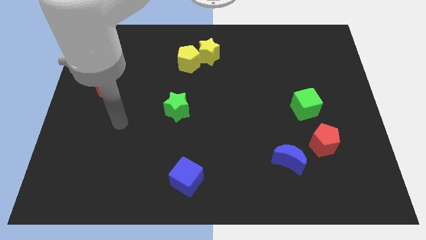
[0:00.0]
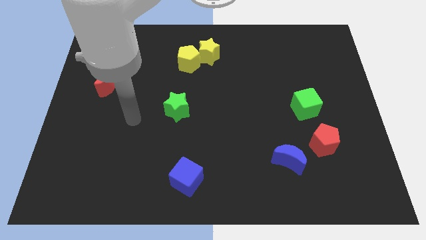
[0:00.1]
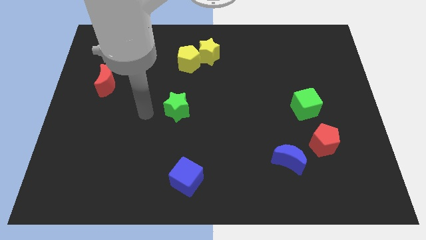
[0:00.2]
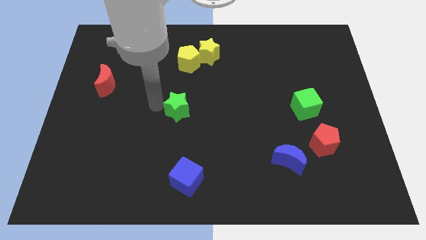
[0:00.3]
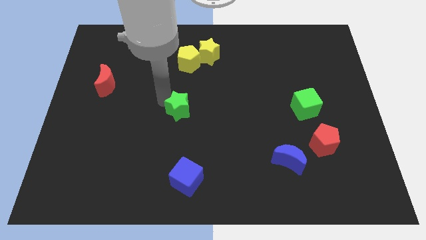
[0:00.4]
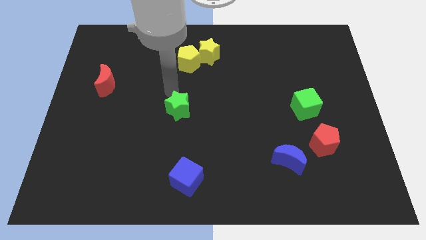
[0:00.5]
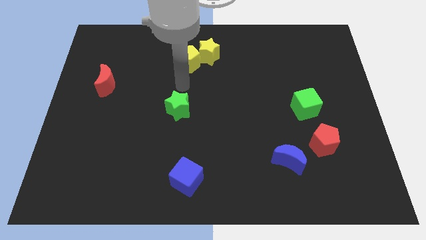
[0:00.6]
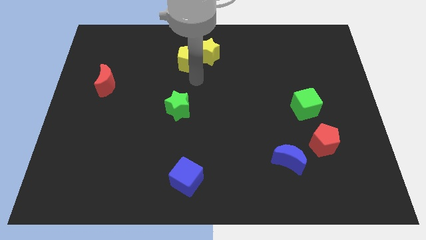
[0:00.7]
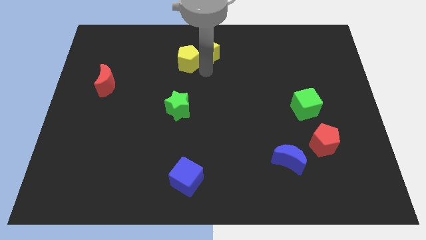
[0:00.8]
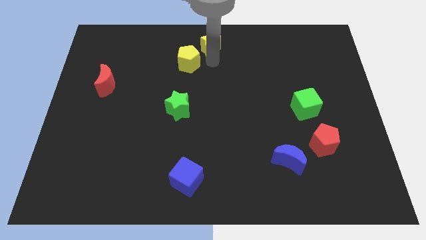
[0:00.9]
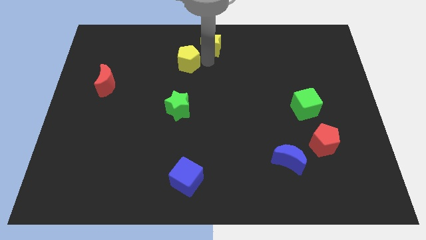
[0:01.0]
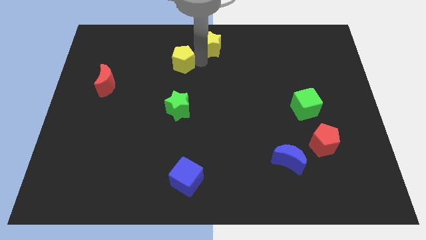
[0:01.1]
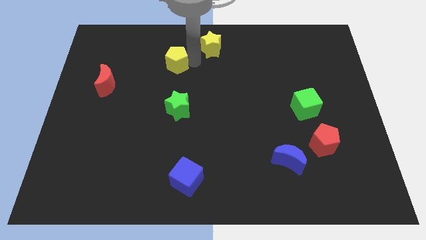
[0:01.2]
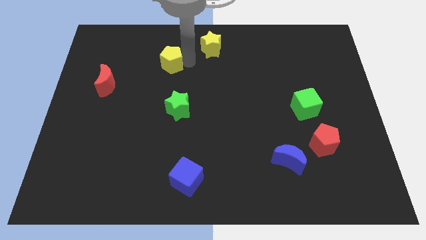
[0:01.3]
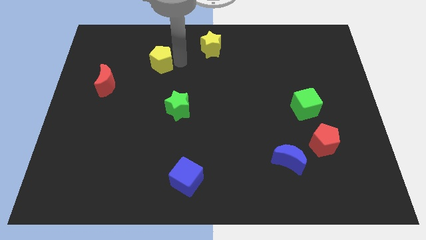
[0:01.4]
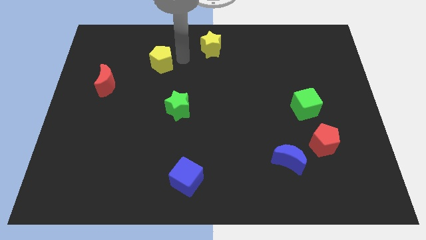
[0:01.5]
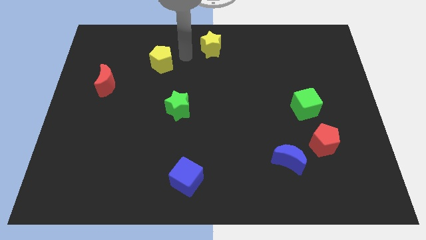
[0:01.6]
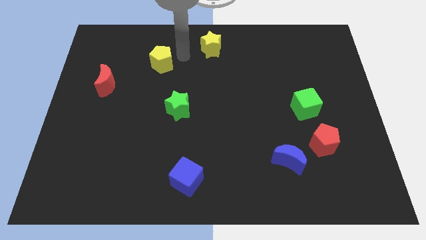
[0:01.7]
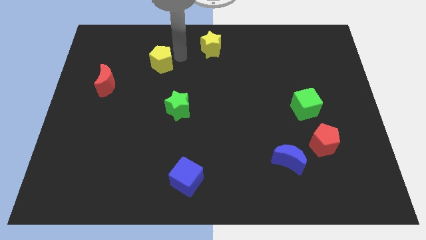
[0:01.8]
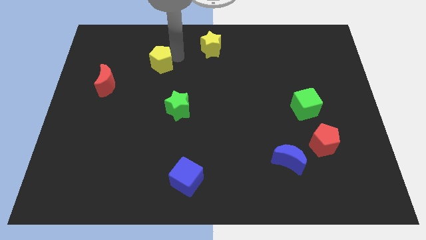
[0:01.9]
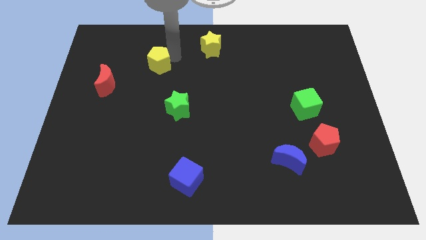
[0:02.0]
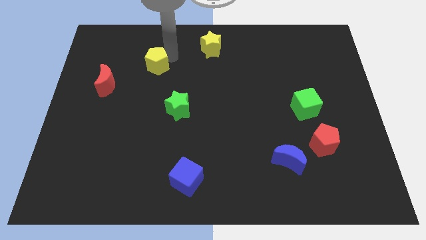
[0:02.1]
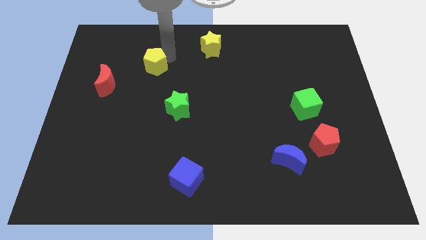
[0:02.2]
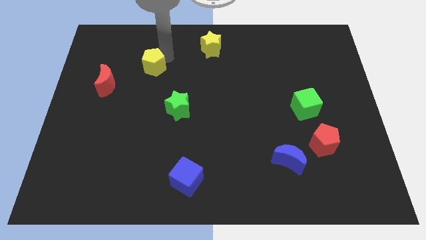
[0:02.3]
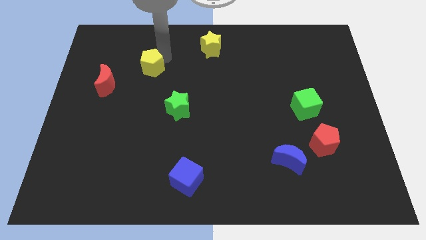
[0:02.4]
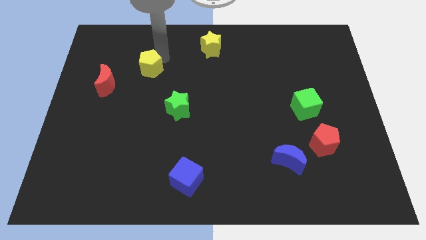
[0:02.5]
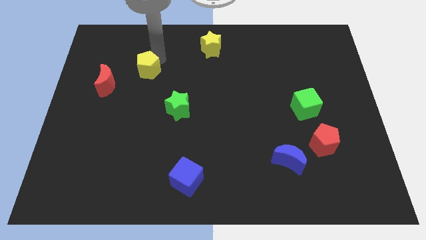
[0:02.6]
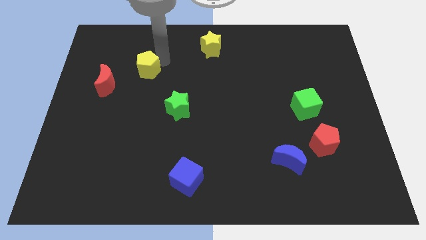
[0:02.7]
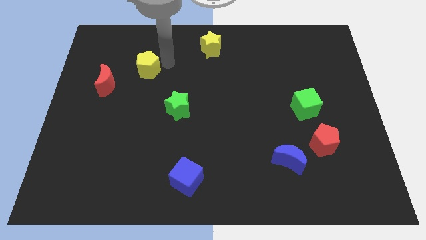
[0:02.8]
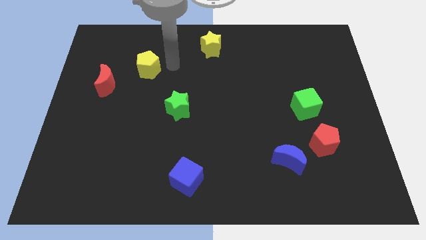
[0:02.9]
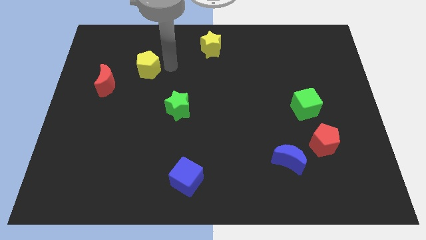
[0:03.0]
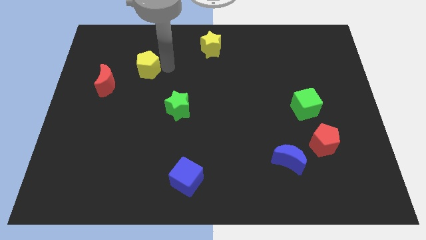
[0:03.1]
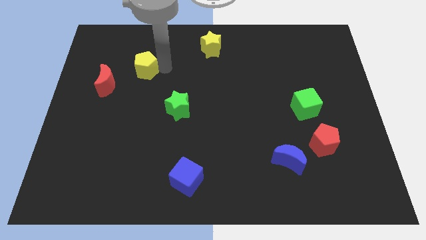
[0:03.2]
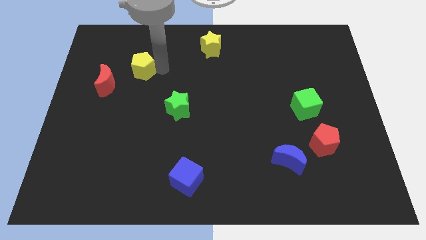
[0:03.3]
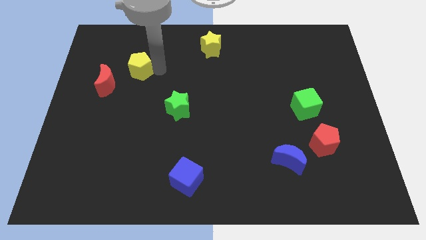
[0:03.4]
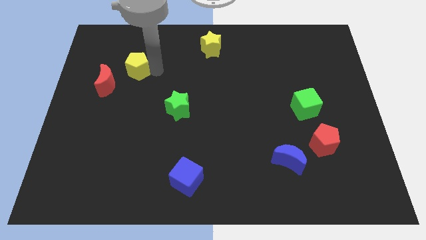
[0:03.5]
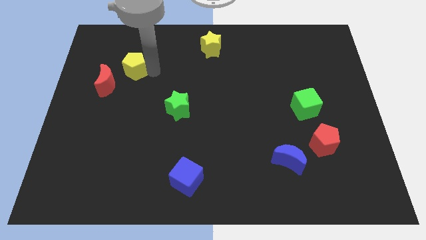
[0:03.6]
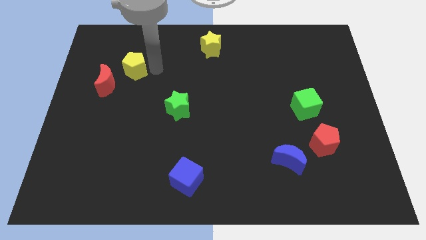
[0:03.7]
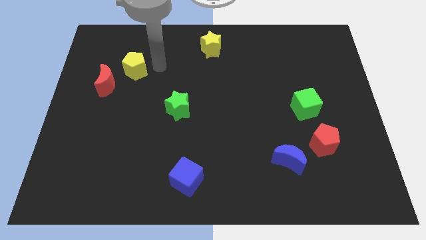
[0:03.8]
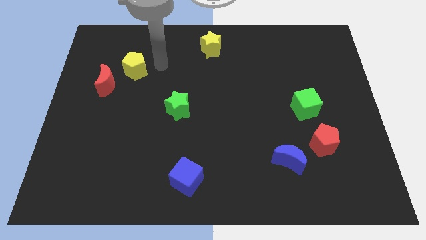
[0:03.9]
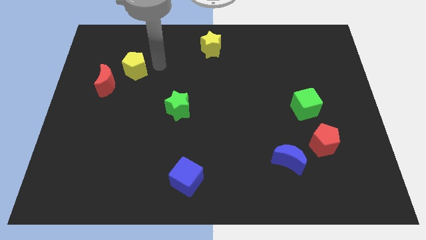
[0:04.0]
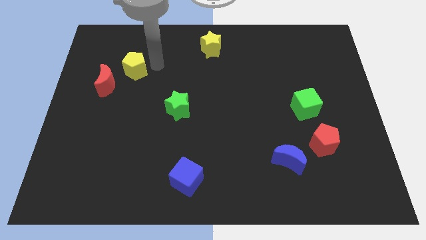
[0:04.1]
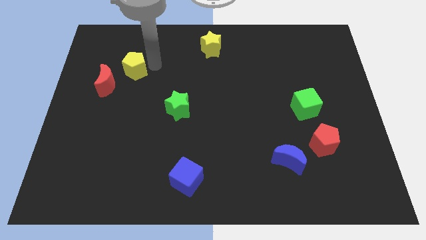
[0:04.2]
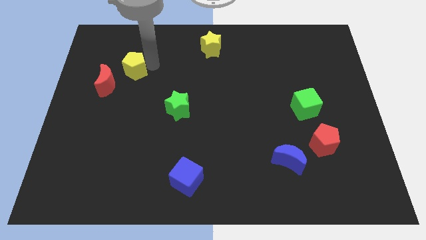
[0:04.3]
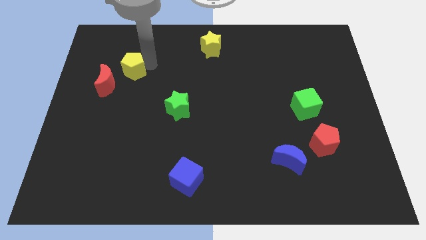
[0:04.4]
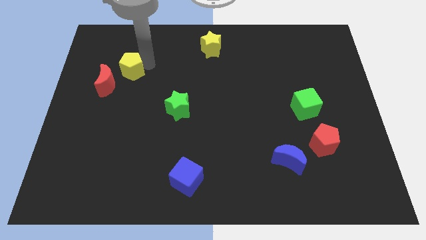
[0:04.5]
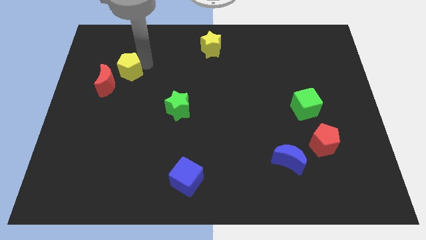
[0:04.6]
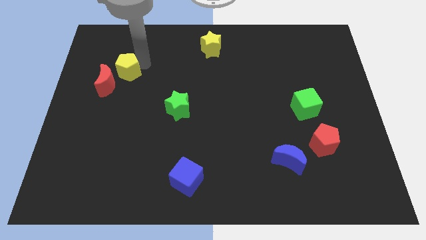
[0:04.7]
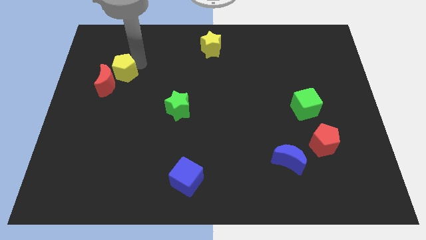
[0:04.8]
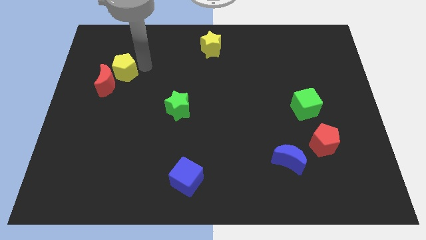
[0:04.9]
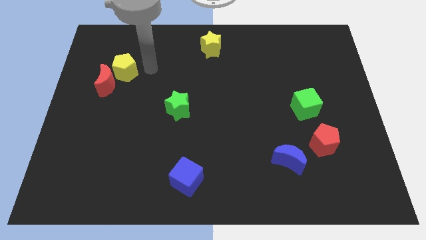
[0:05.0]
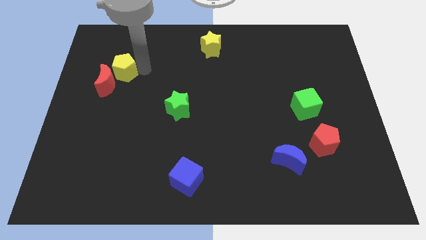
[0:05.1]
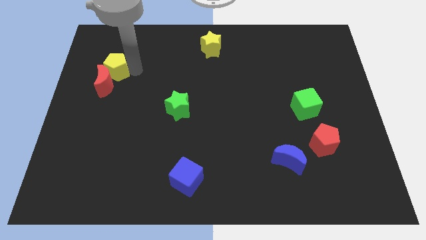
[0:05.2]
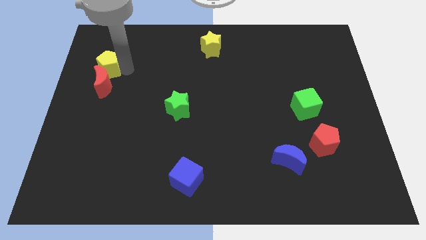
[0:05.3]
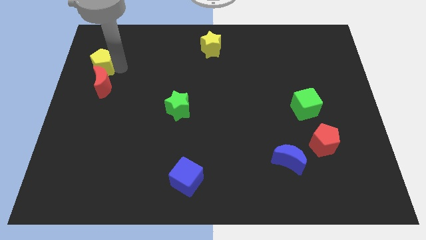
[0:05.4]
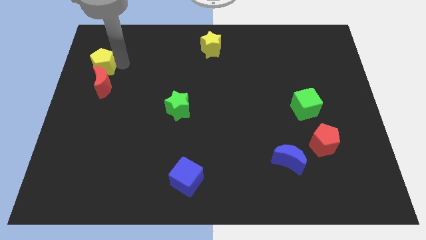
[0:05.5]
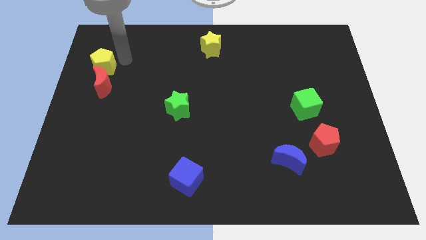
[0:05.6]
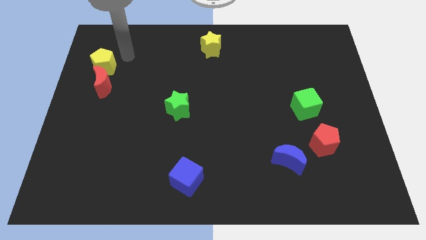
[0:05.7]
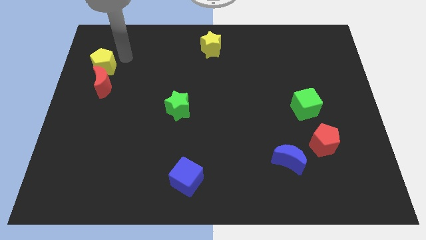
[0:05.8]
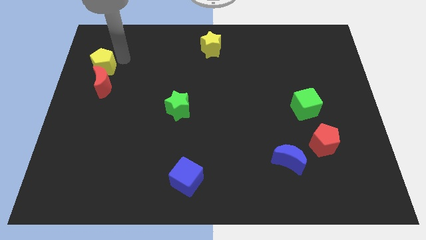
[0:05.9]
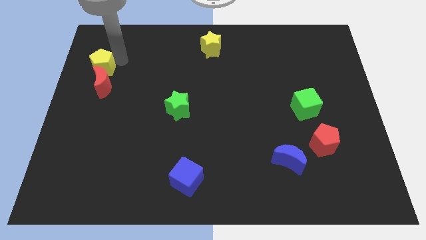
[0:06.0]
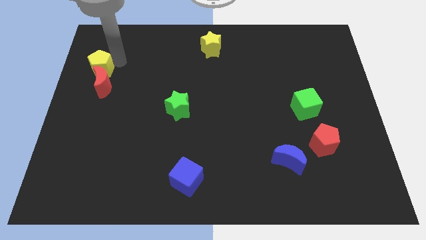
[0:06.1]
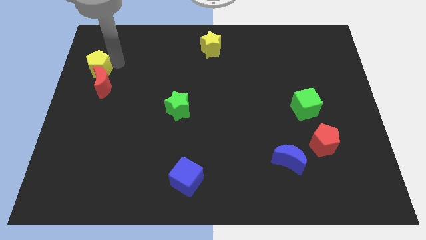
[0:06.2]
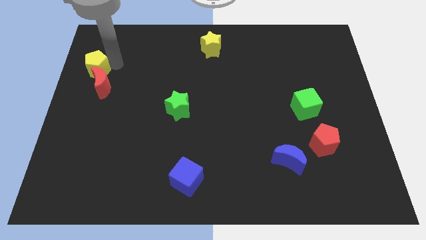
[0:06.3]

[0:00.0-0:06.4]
slide the yellow pentagon to the center left

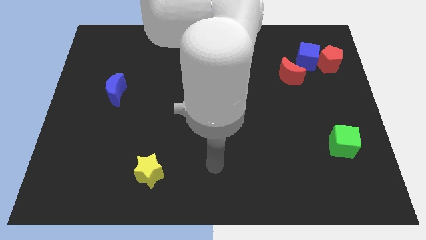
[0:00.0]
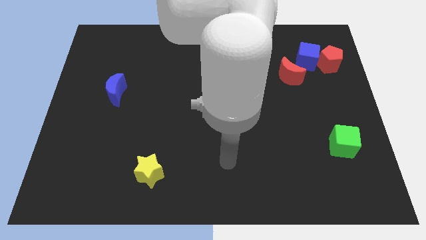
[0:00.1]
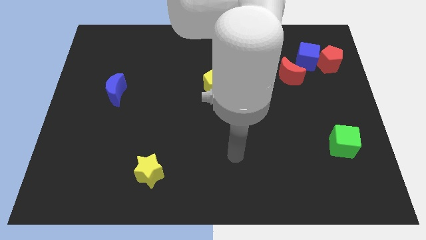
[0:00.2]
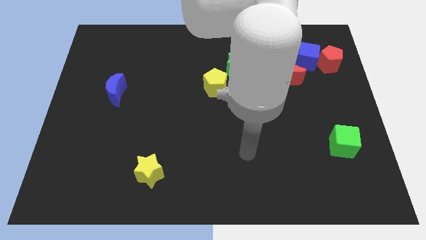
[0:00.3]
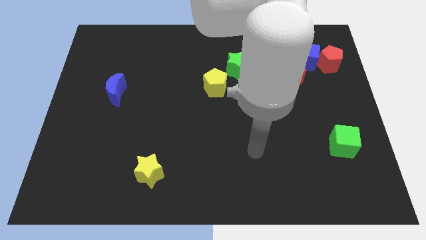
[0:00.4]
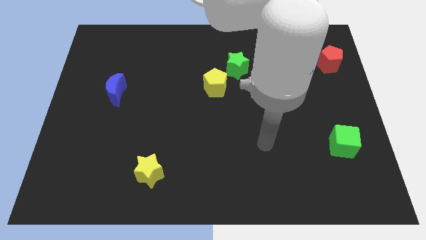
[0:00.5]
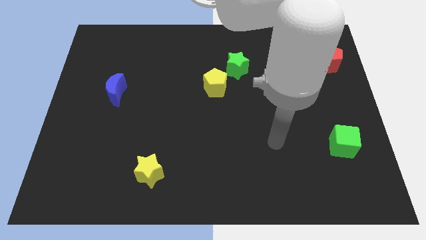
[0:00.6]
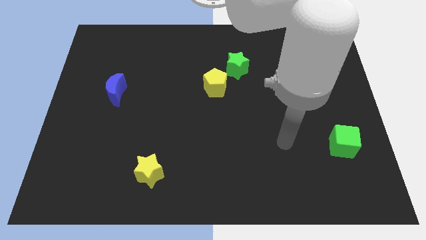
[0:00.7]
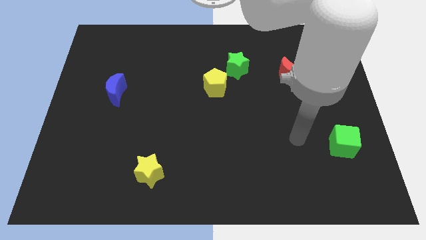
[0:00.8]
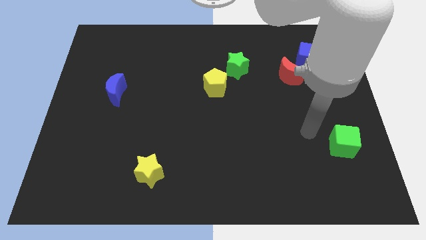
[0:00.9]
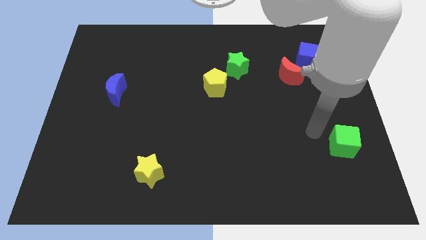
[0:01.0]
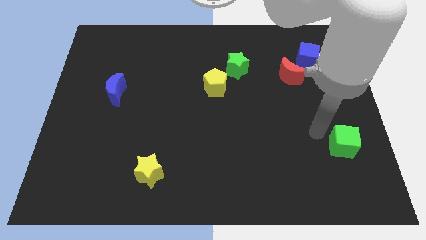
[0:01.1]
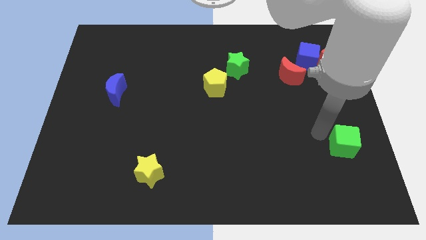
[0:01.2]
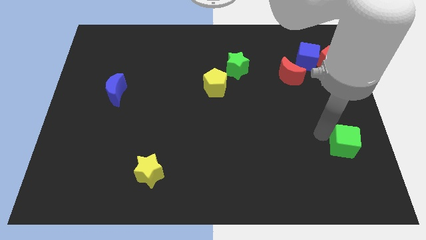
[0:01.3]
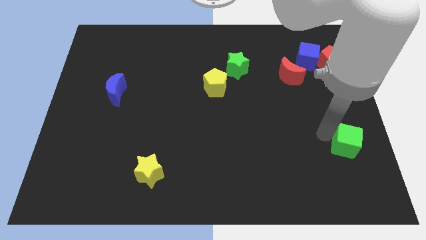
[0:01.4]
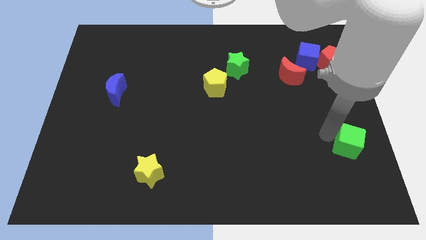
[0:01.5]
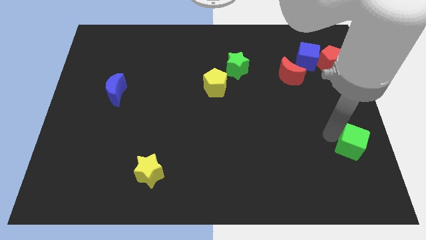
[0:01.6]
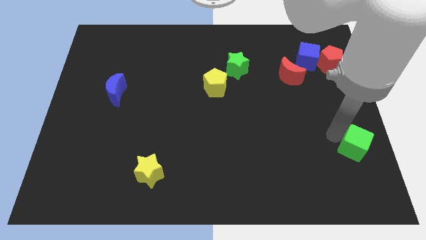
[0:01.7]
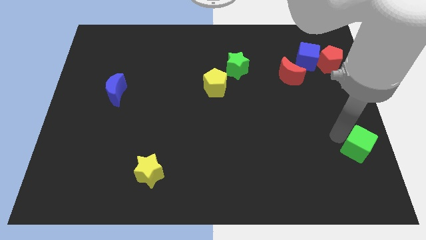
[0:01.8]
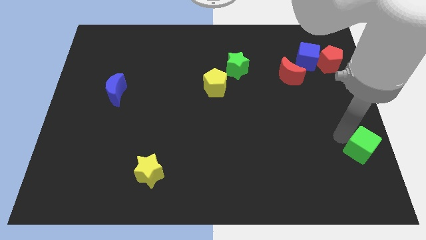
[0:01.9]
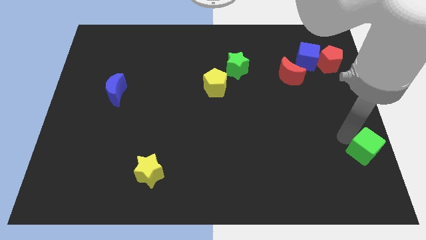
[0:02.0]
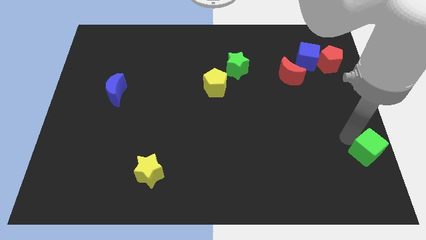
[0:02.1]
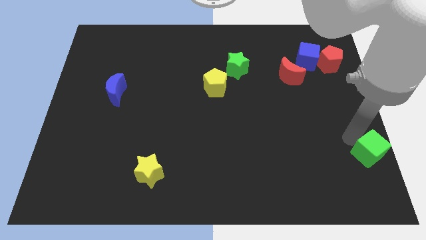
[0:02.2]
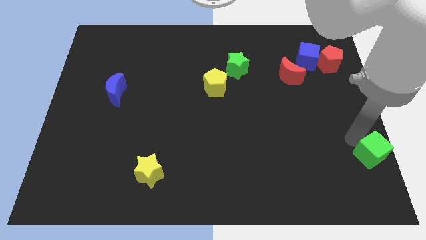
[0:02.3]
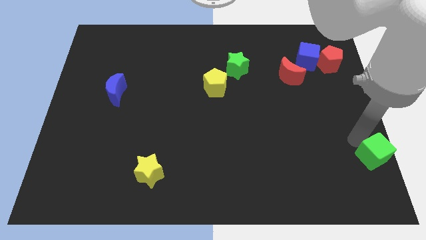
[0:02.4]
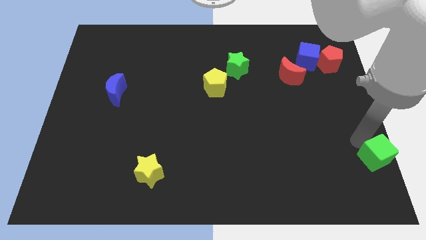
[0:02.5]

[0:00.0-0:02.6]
put the green cube to the bottom right
